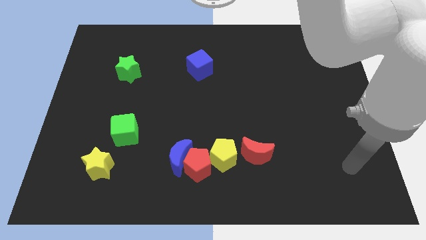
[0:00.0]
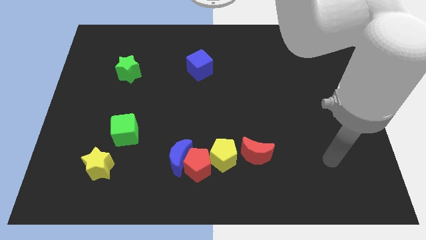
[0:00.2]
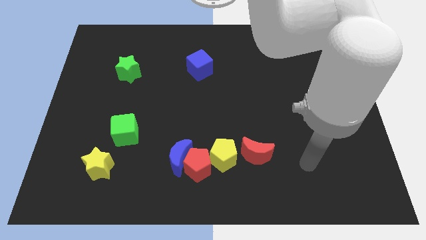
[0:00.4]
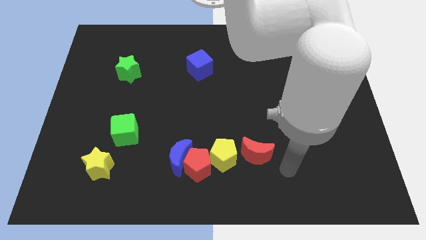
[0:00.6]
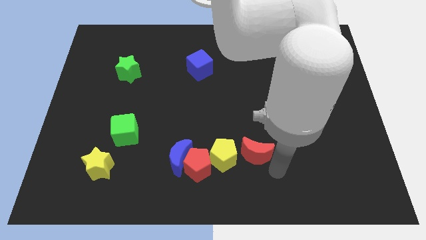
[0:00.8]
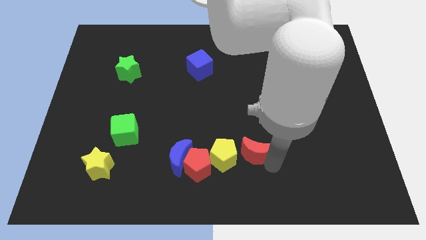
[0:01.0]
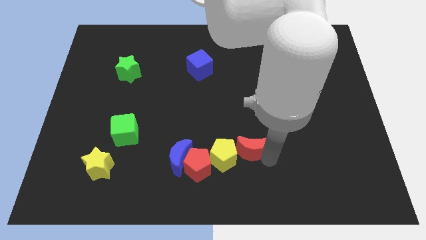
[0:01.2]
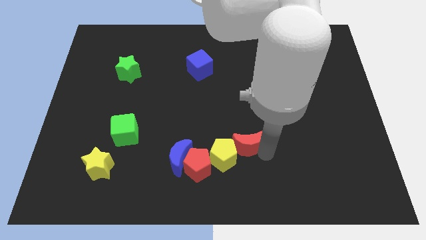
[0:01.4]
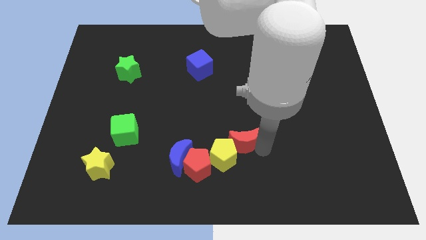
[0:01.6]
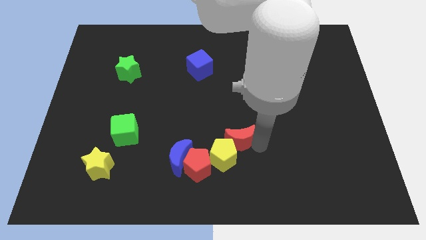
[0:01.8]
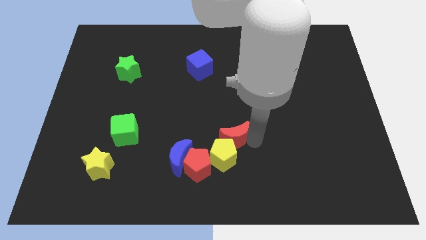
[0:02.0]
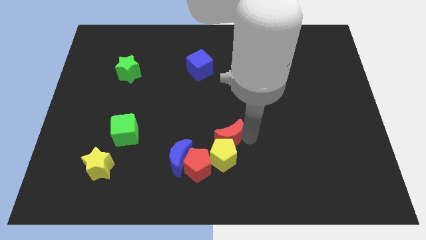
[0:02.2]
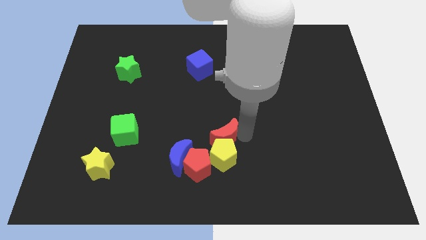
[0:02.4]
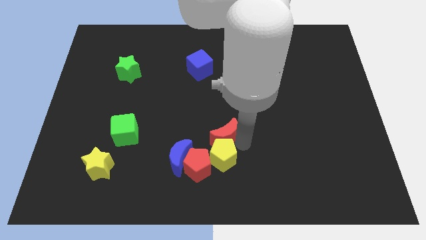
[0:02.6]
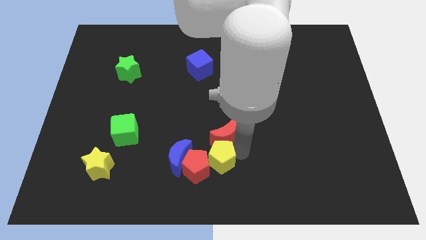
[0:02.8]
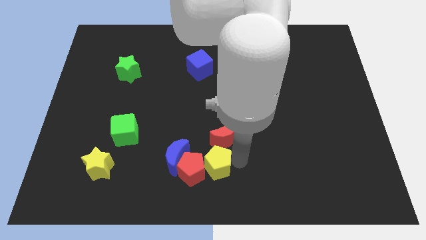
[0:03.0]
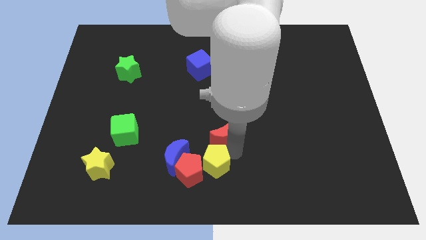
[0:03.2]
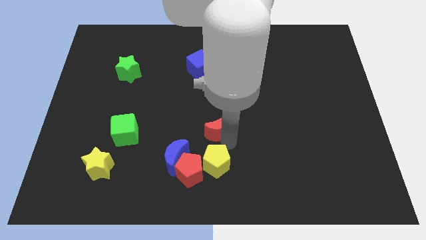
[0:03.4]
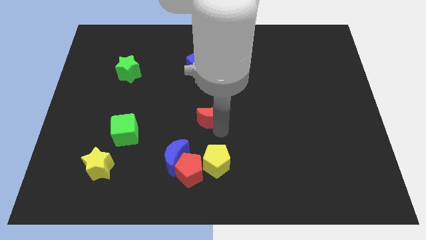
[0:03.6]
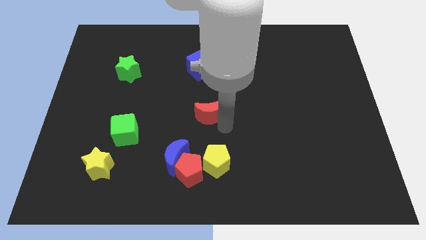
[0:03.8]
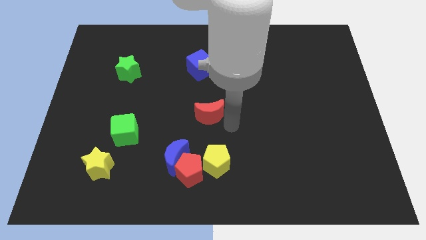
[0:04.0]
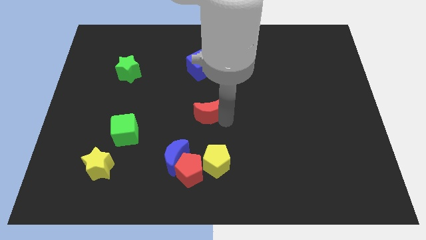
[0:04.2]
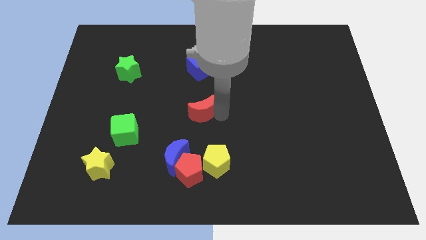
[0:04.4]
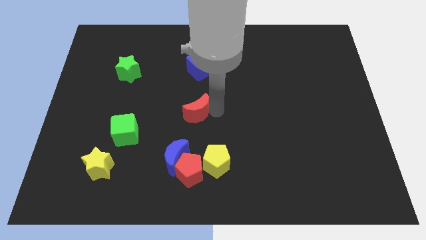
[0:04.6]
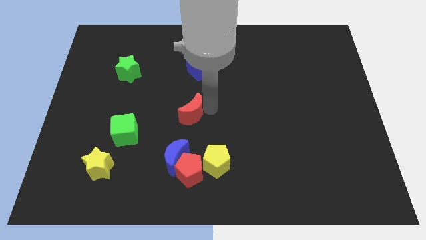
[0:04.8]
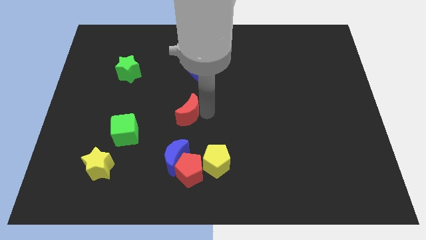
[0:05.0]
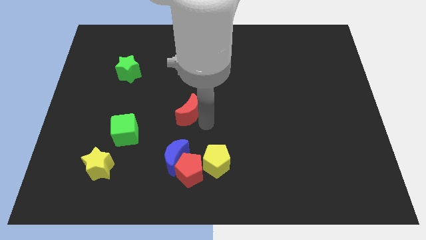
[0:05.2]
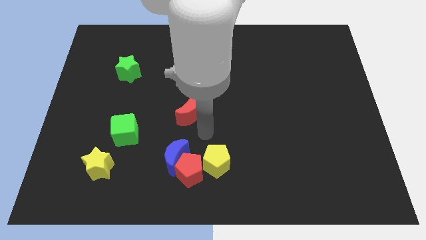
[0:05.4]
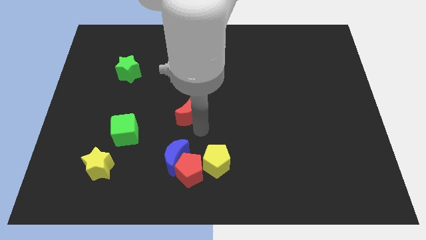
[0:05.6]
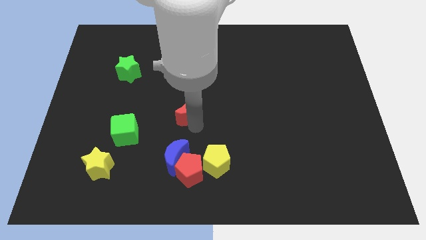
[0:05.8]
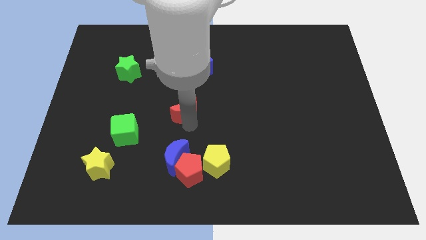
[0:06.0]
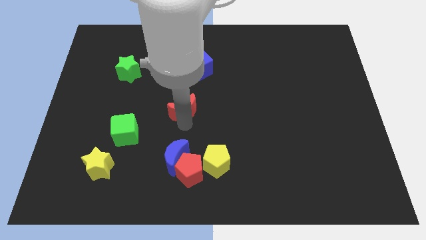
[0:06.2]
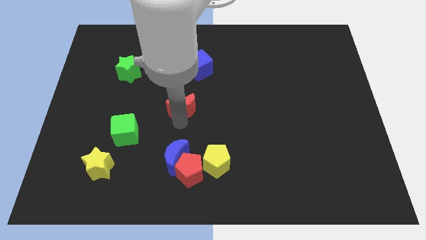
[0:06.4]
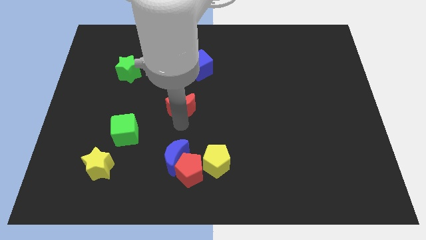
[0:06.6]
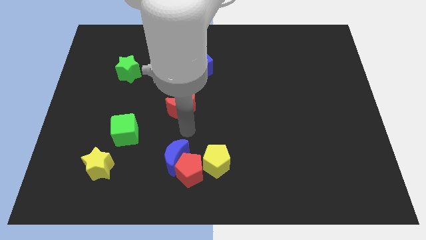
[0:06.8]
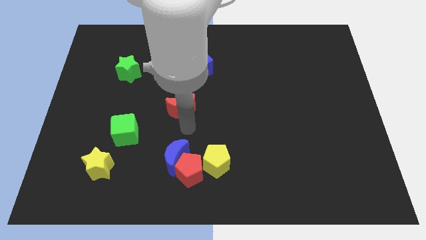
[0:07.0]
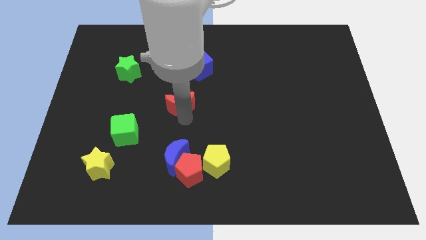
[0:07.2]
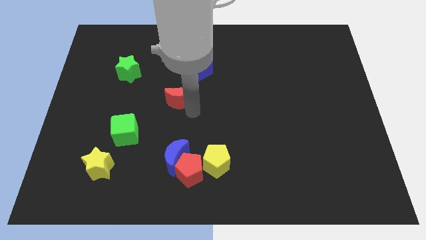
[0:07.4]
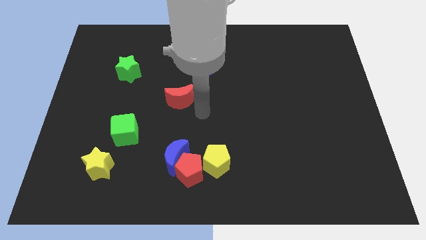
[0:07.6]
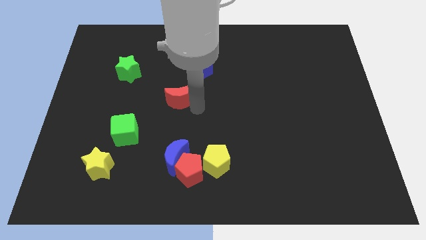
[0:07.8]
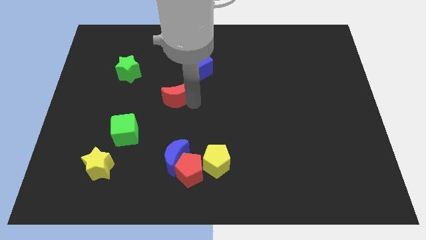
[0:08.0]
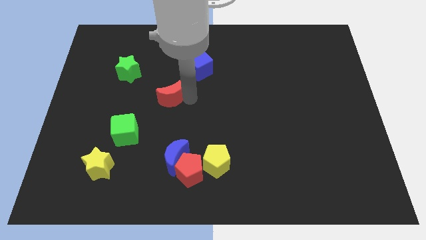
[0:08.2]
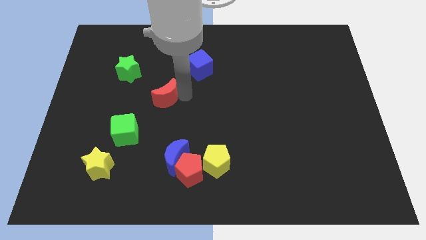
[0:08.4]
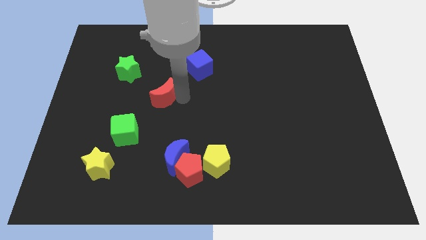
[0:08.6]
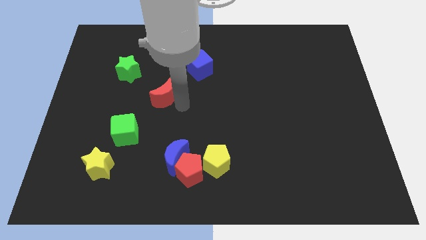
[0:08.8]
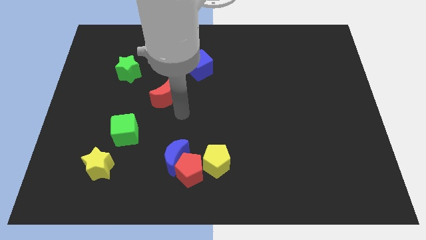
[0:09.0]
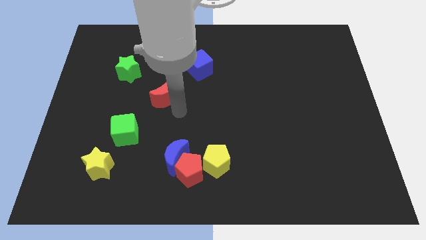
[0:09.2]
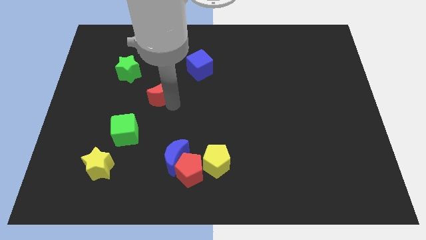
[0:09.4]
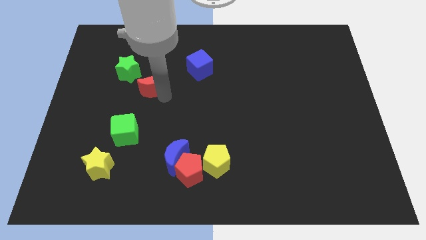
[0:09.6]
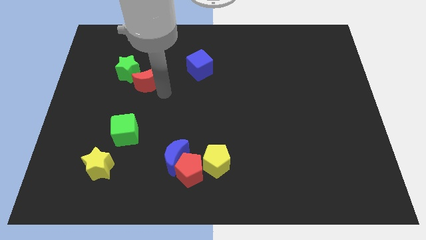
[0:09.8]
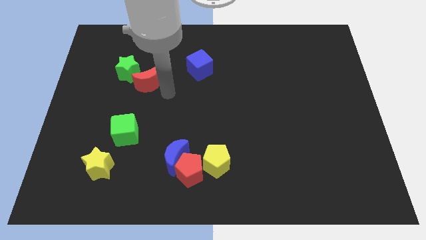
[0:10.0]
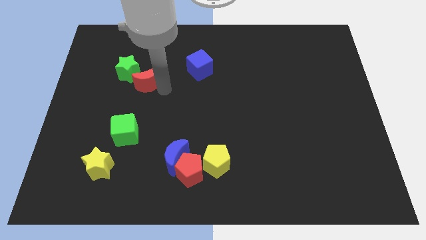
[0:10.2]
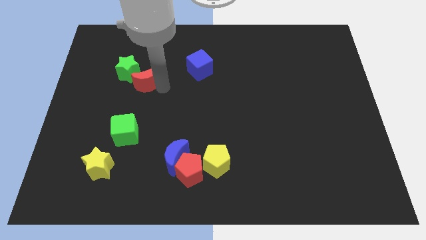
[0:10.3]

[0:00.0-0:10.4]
push the red moon next to the green star

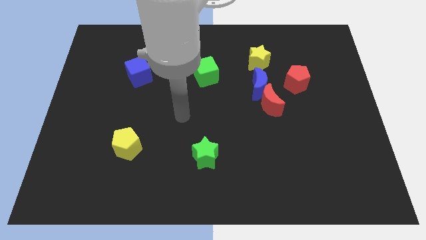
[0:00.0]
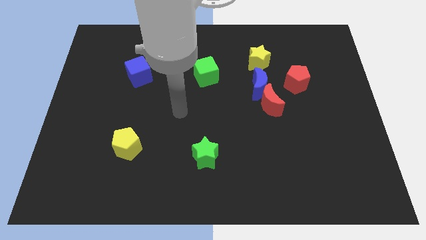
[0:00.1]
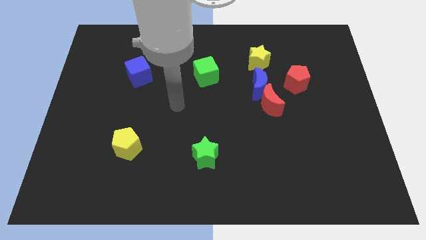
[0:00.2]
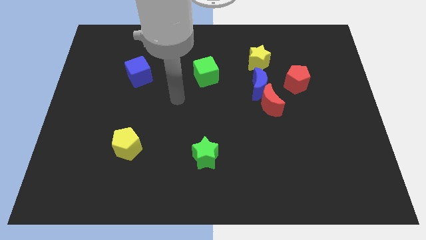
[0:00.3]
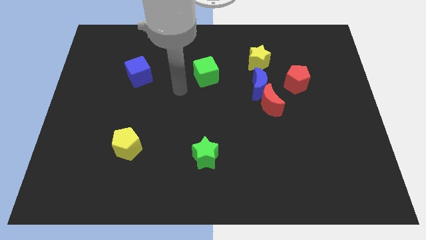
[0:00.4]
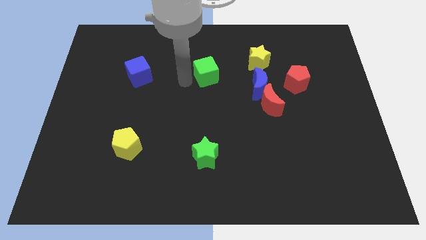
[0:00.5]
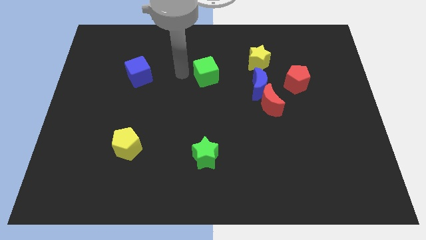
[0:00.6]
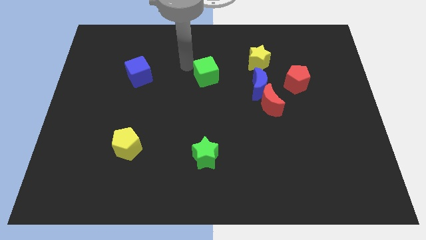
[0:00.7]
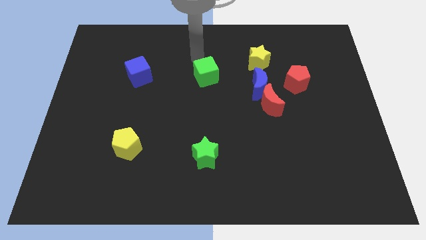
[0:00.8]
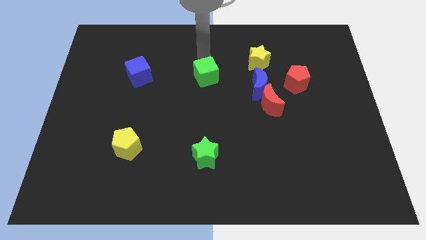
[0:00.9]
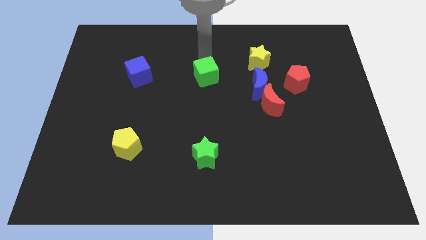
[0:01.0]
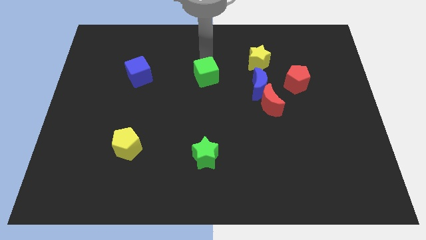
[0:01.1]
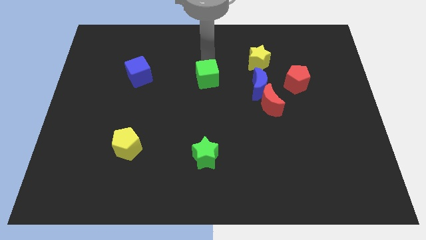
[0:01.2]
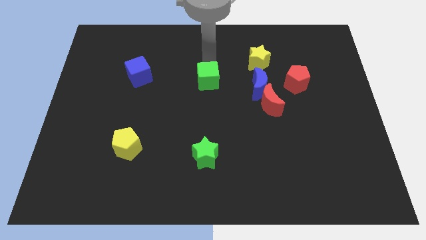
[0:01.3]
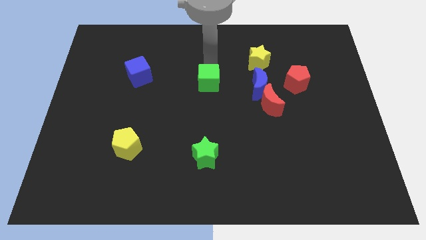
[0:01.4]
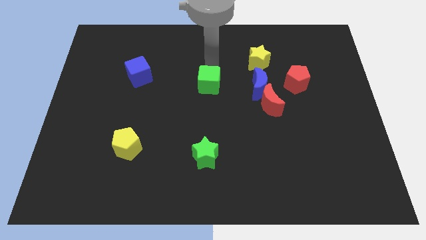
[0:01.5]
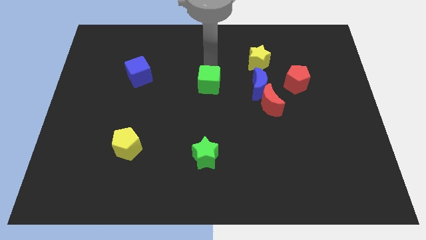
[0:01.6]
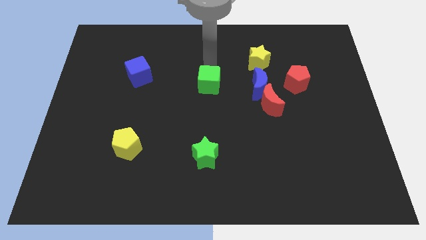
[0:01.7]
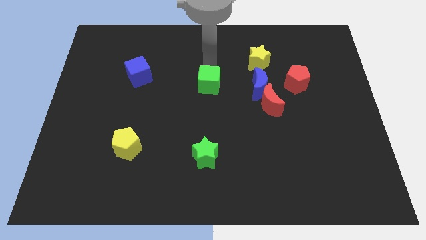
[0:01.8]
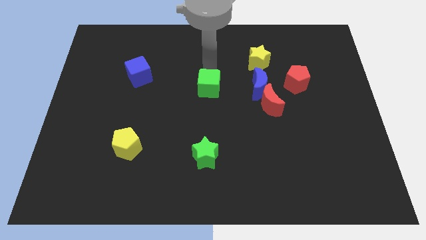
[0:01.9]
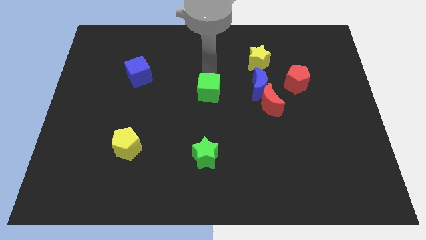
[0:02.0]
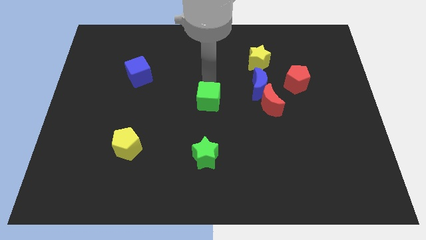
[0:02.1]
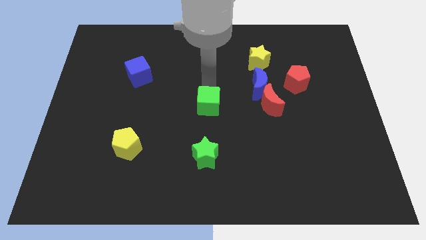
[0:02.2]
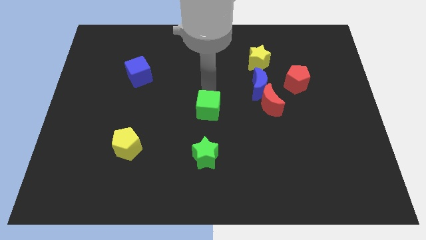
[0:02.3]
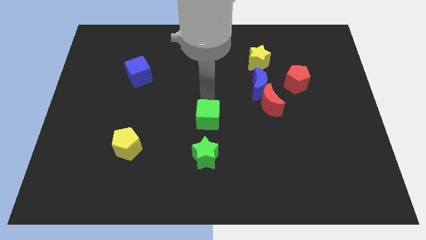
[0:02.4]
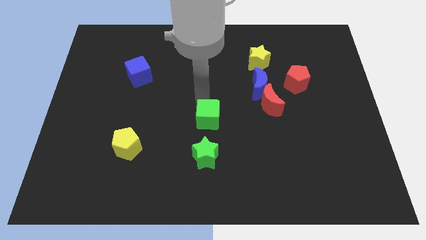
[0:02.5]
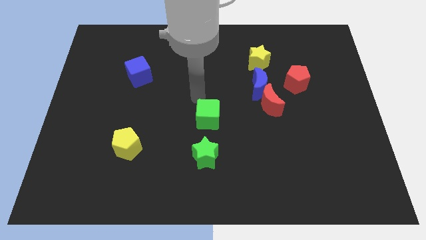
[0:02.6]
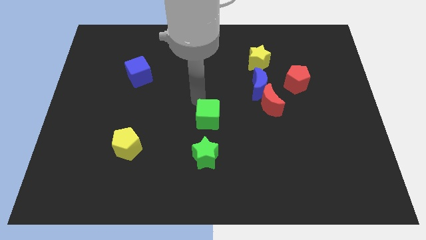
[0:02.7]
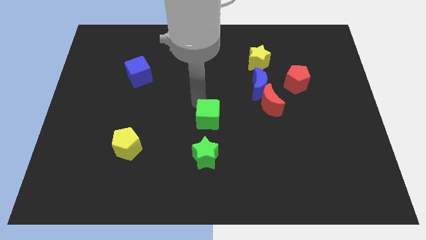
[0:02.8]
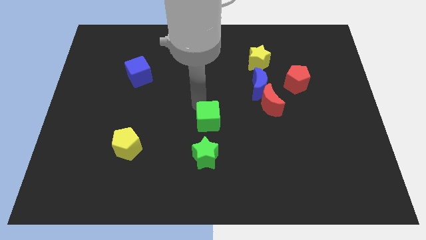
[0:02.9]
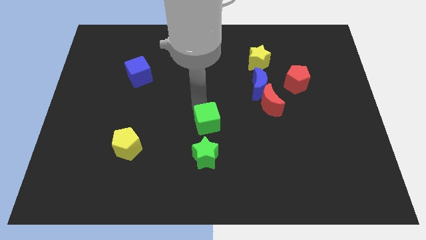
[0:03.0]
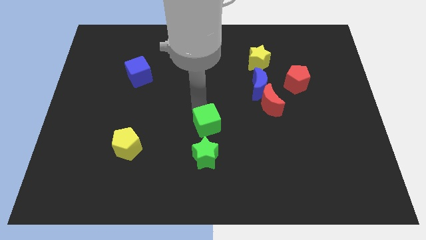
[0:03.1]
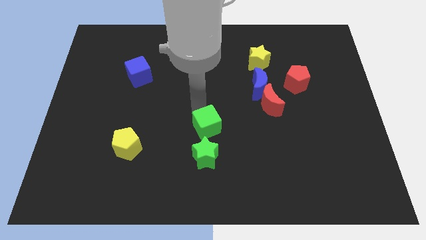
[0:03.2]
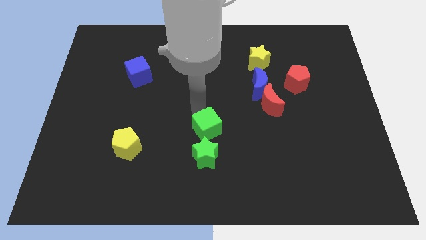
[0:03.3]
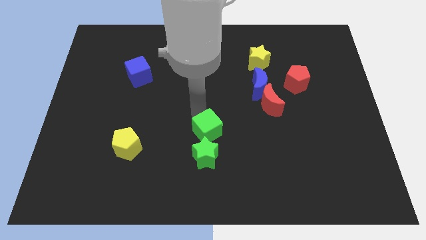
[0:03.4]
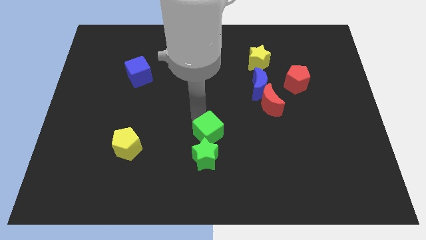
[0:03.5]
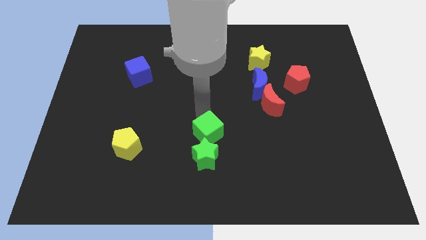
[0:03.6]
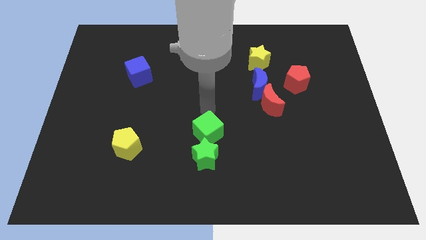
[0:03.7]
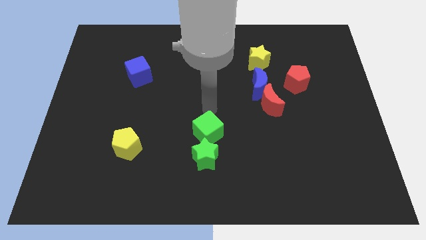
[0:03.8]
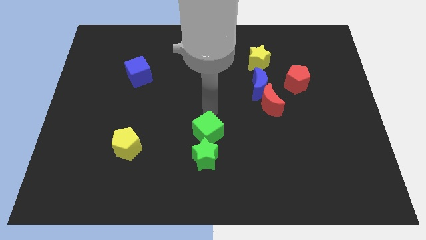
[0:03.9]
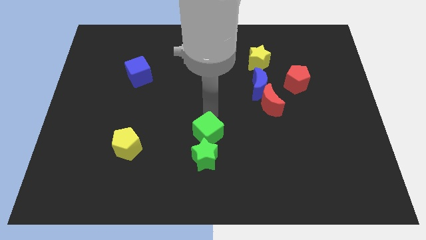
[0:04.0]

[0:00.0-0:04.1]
slide the green cube close to the green star
